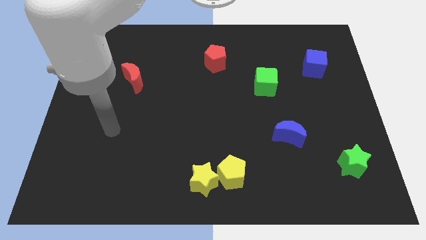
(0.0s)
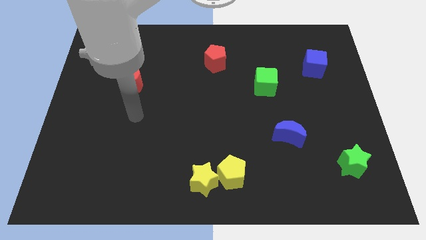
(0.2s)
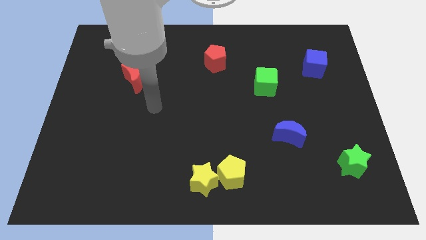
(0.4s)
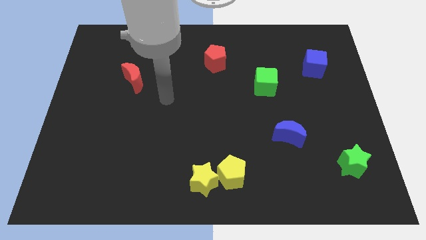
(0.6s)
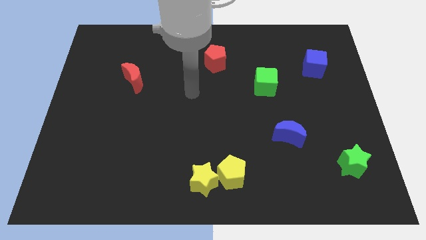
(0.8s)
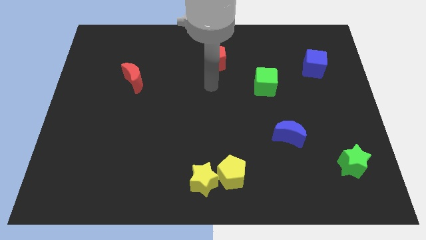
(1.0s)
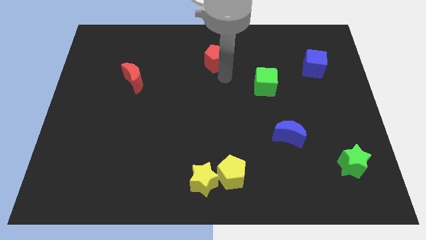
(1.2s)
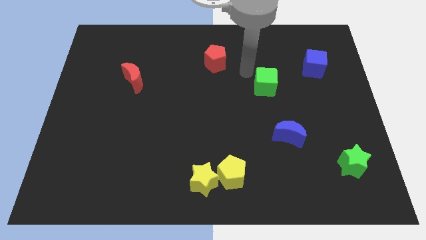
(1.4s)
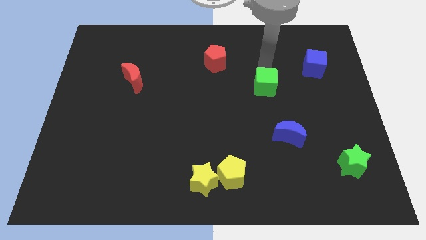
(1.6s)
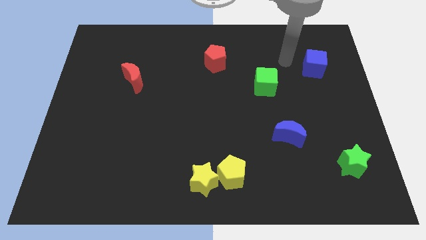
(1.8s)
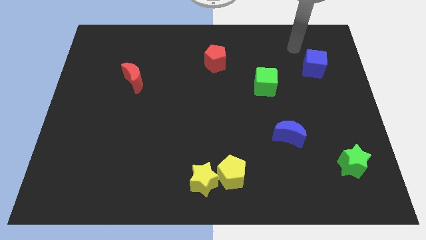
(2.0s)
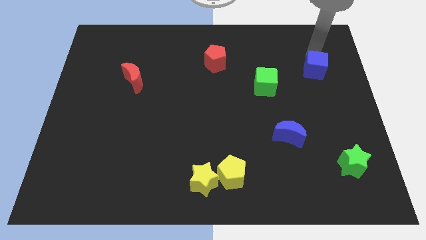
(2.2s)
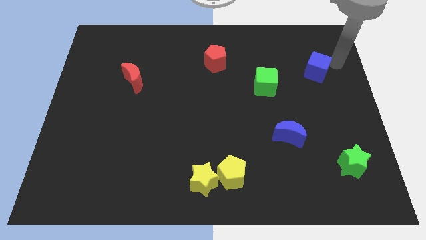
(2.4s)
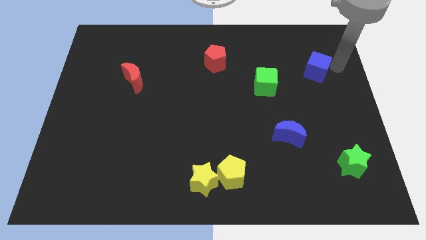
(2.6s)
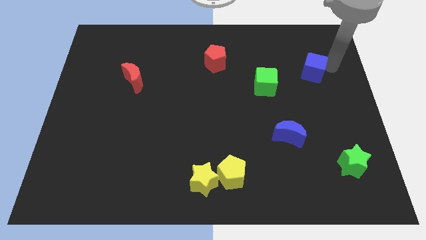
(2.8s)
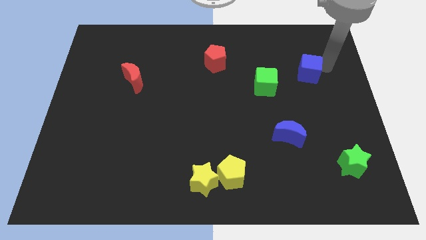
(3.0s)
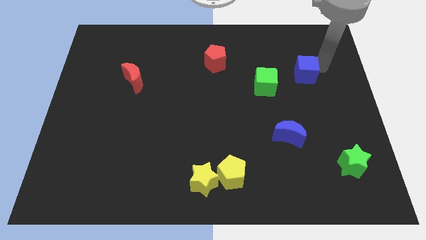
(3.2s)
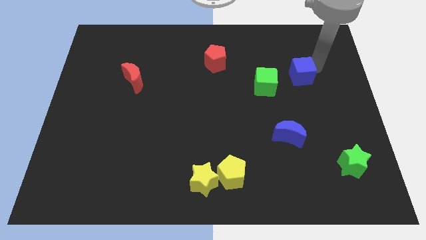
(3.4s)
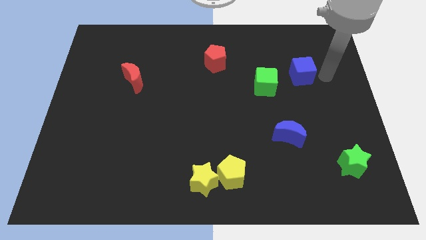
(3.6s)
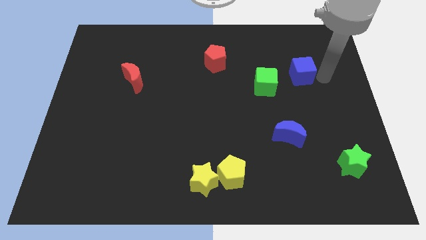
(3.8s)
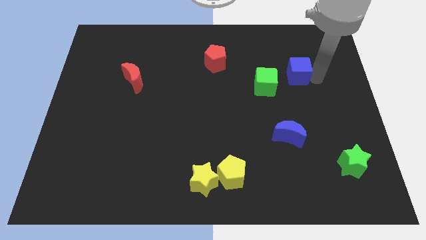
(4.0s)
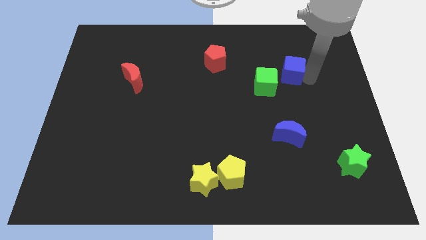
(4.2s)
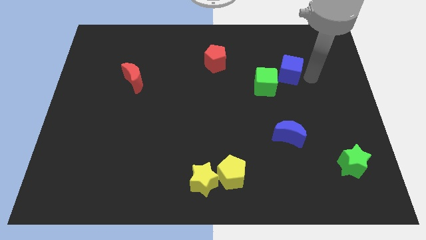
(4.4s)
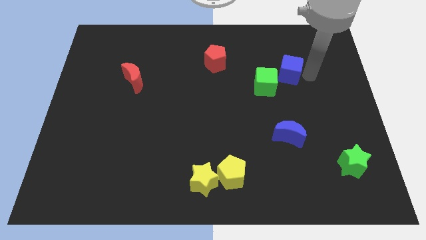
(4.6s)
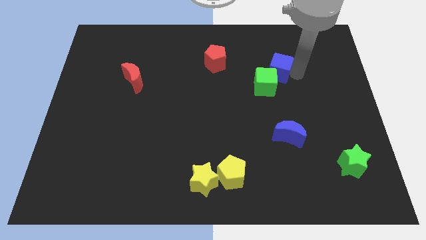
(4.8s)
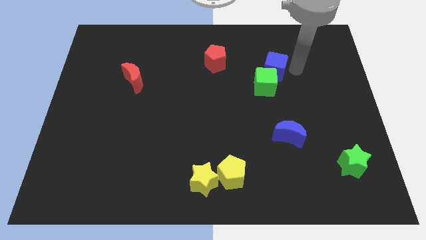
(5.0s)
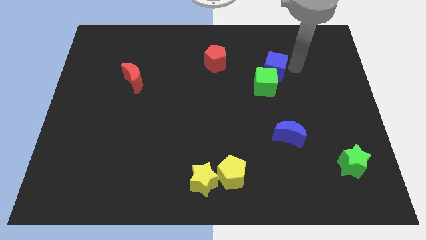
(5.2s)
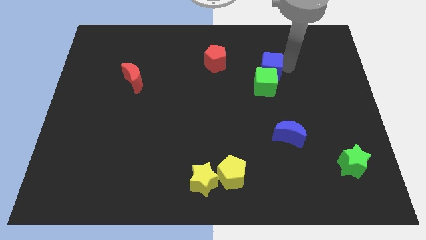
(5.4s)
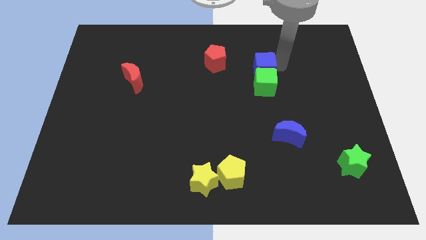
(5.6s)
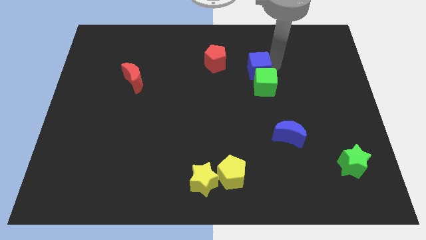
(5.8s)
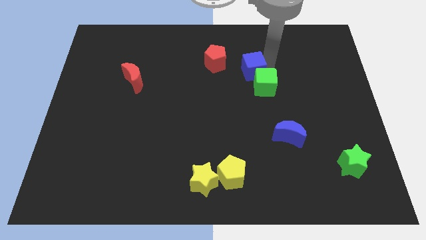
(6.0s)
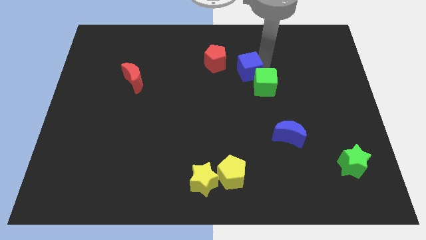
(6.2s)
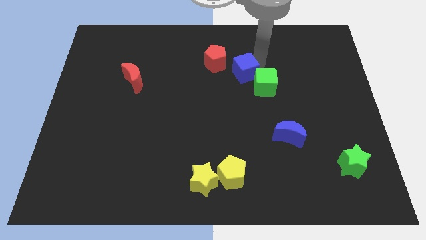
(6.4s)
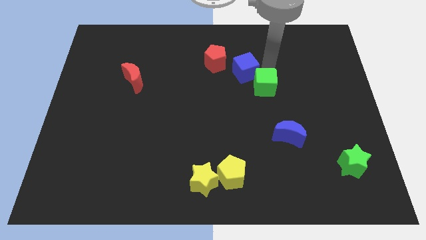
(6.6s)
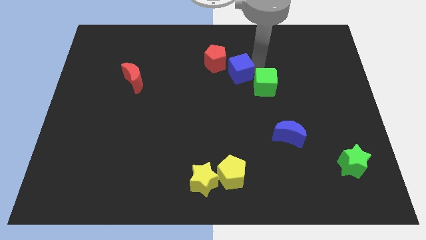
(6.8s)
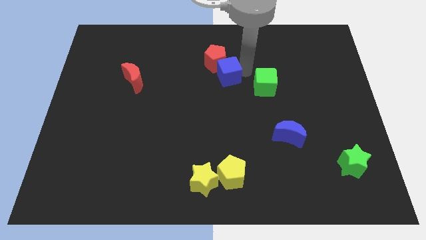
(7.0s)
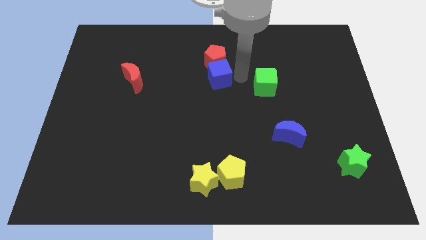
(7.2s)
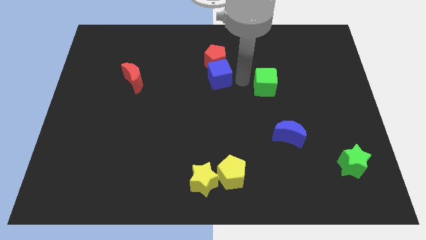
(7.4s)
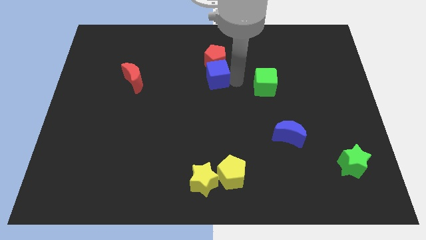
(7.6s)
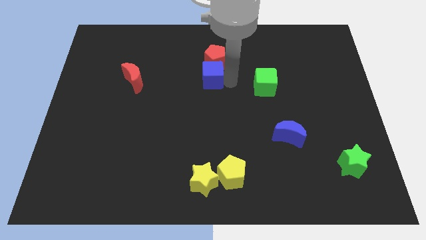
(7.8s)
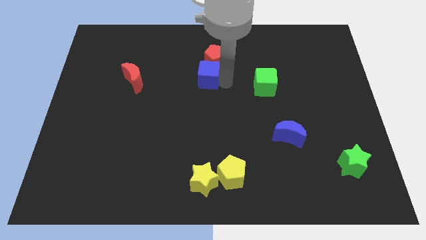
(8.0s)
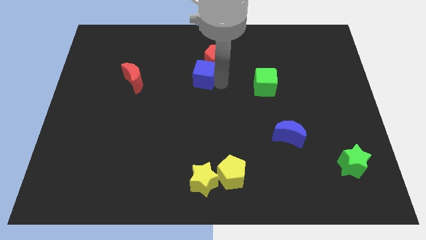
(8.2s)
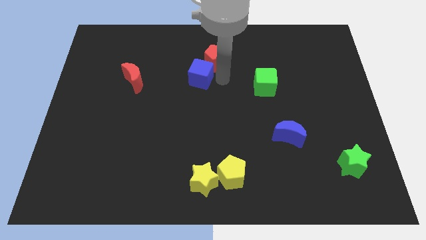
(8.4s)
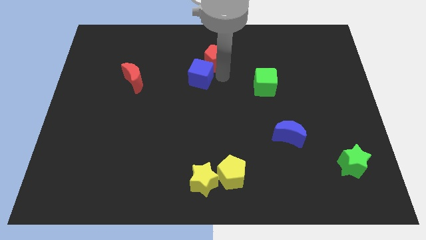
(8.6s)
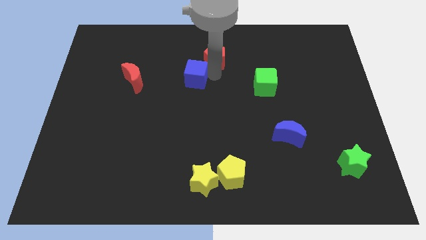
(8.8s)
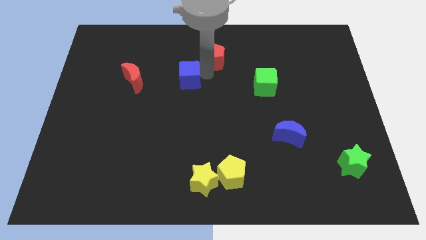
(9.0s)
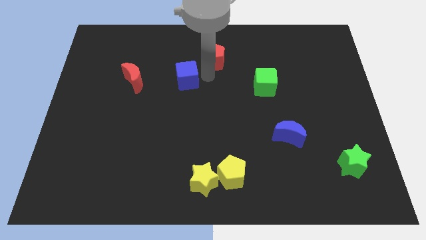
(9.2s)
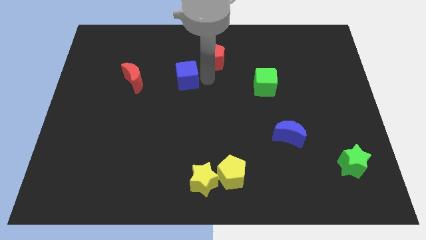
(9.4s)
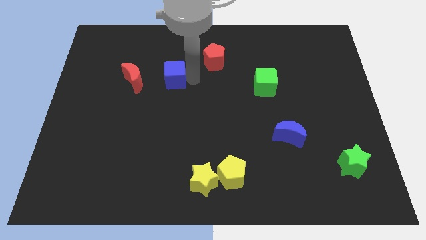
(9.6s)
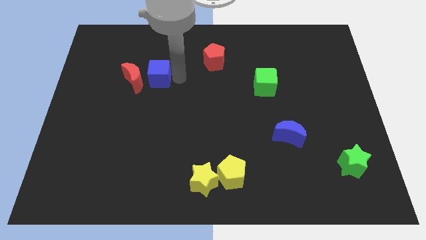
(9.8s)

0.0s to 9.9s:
push the blue cube close to the red moon

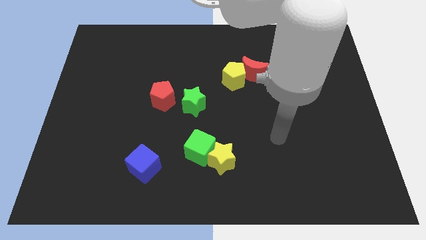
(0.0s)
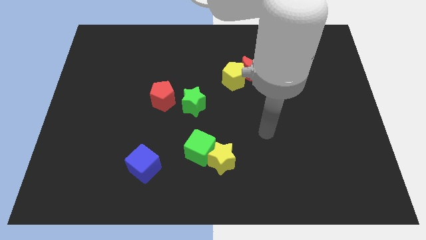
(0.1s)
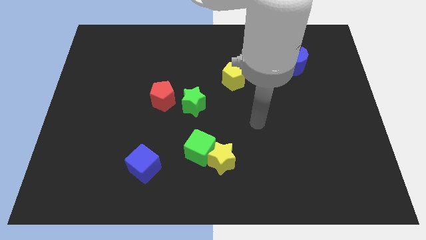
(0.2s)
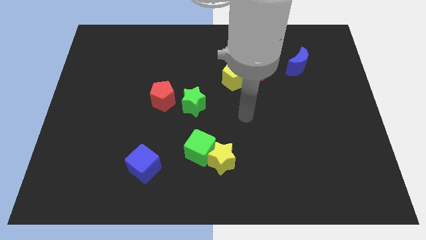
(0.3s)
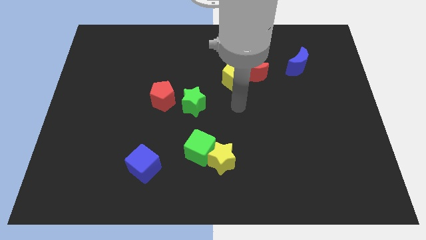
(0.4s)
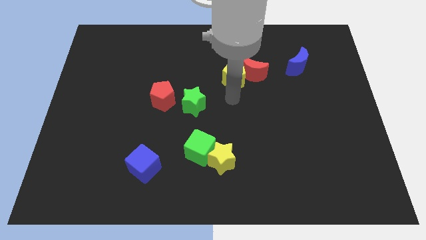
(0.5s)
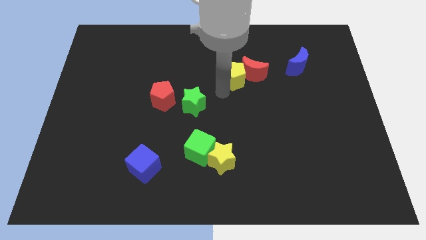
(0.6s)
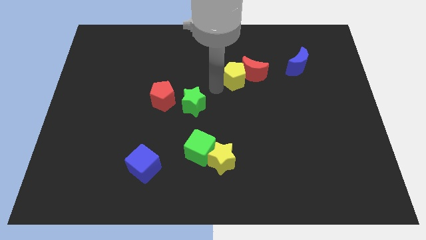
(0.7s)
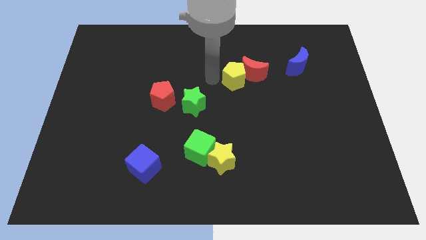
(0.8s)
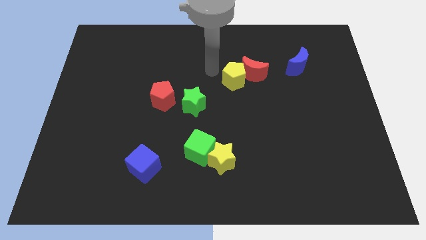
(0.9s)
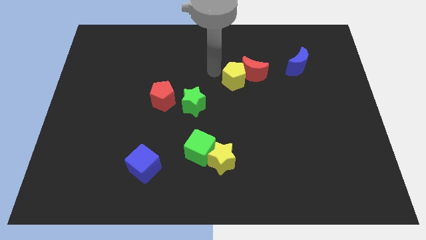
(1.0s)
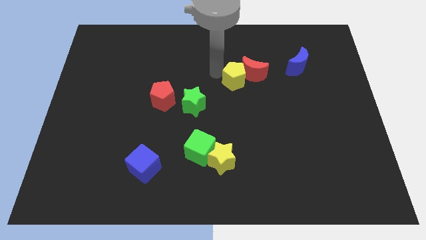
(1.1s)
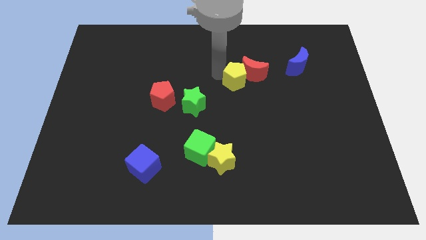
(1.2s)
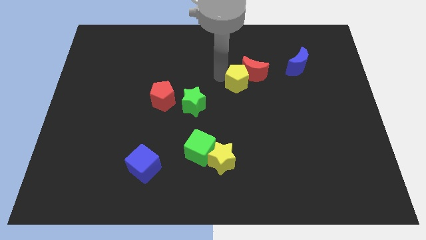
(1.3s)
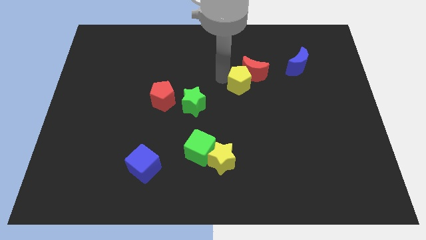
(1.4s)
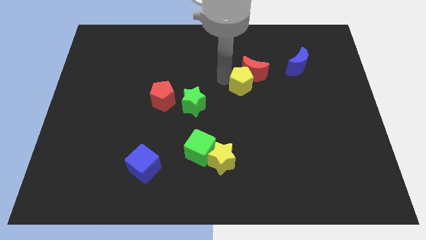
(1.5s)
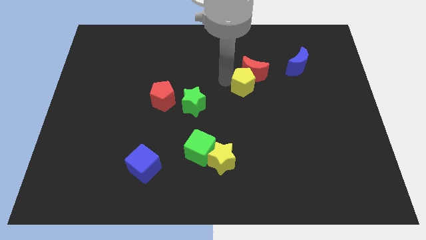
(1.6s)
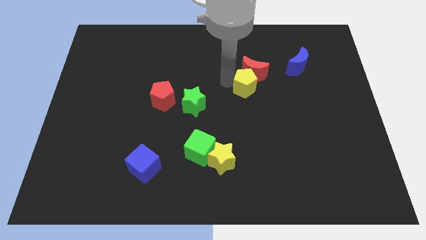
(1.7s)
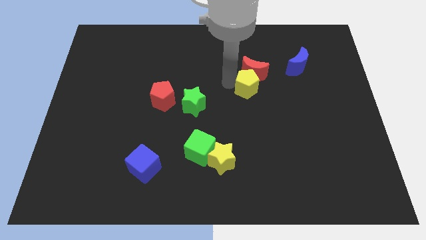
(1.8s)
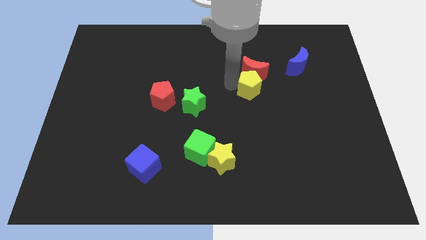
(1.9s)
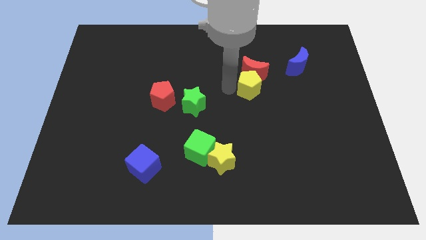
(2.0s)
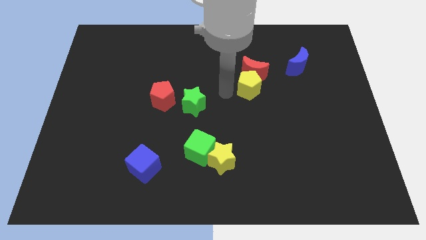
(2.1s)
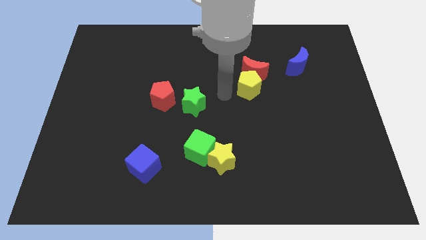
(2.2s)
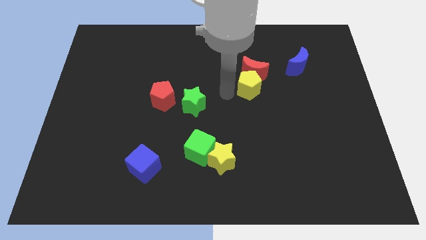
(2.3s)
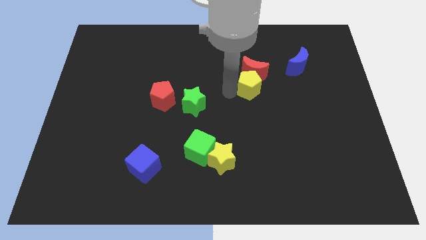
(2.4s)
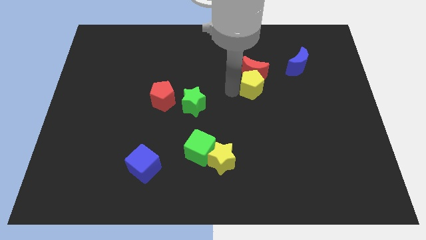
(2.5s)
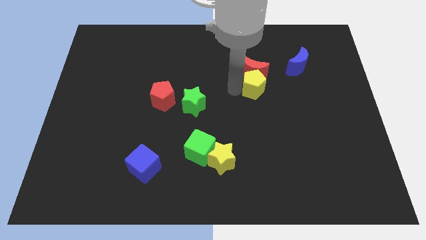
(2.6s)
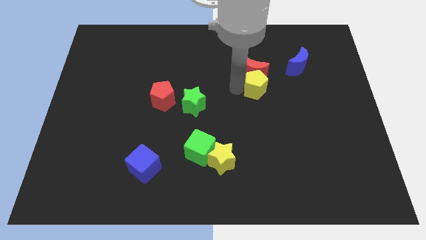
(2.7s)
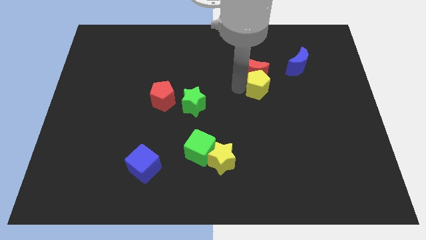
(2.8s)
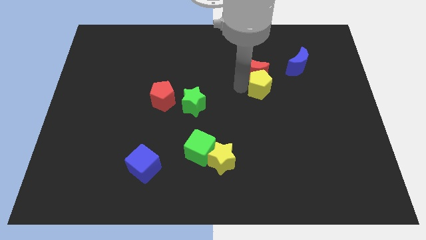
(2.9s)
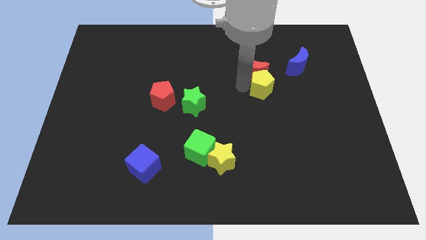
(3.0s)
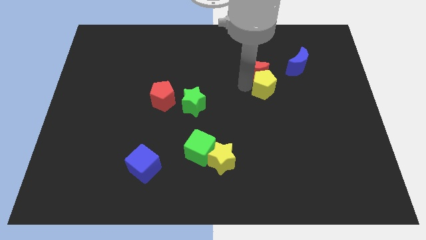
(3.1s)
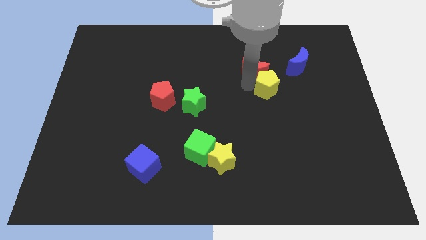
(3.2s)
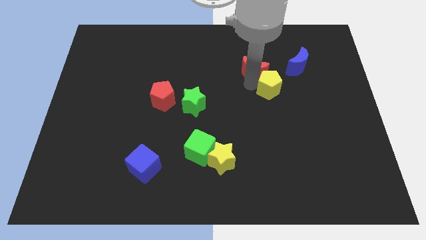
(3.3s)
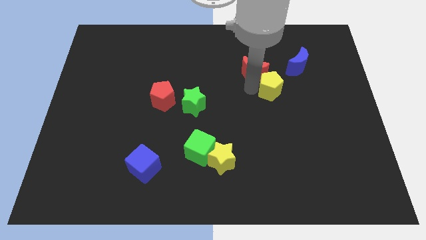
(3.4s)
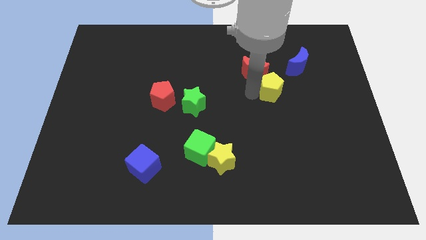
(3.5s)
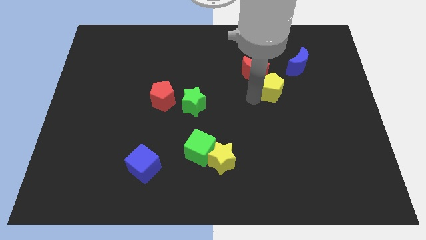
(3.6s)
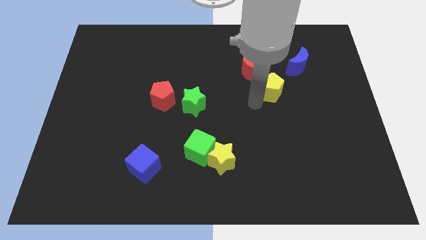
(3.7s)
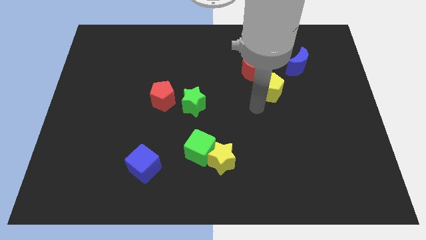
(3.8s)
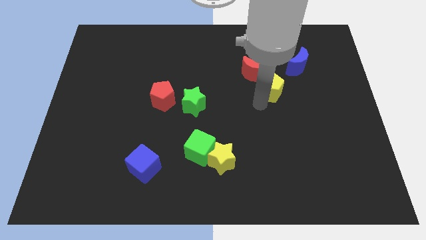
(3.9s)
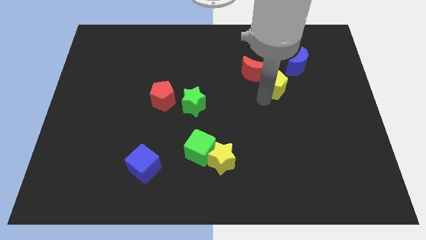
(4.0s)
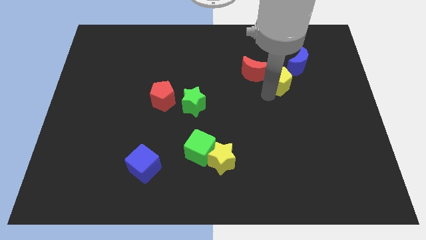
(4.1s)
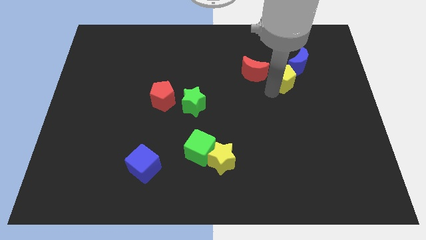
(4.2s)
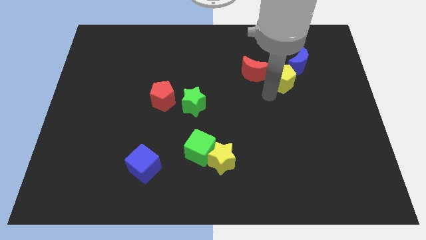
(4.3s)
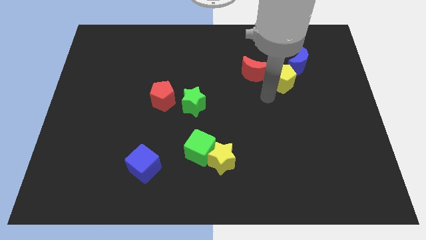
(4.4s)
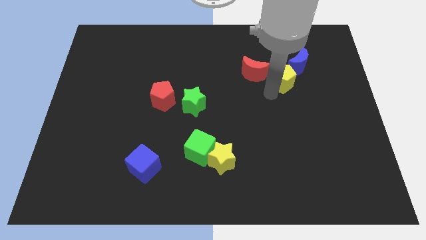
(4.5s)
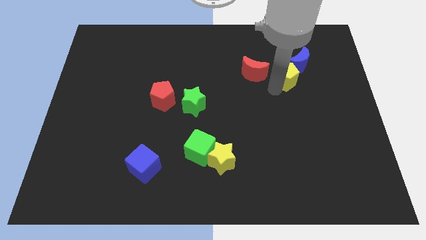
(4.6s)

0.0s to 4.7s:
put the yellow pentagon towards the blue moon
